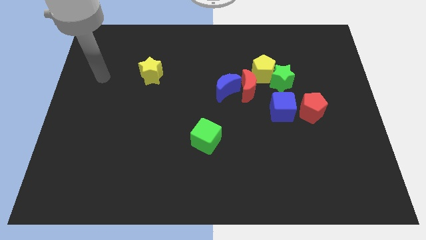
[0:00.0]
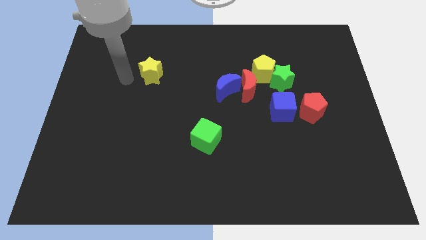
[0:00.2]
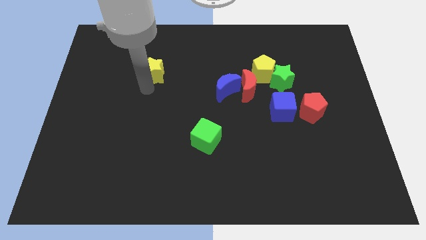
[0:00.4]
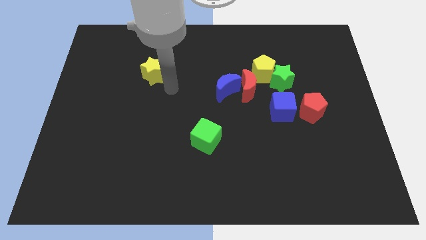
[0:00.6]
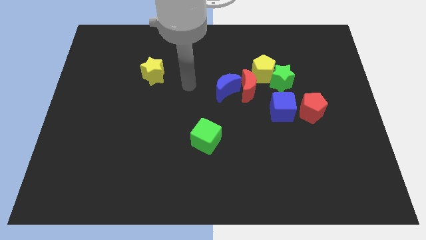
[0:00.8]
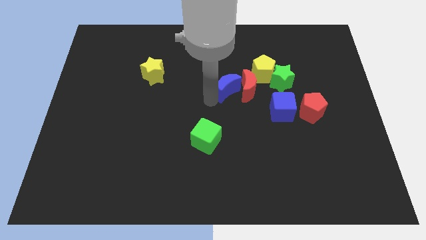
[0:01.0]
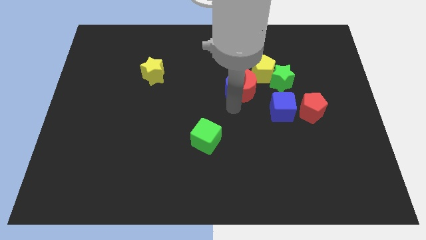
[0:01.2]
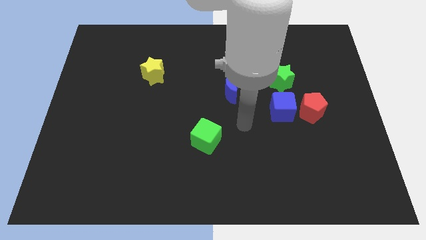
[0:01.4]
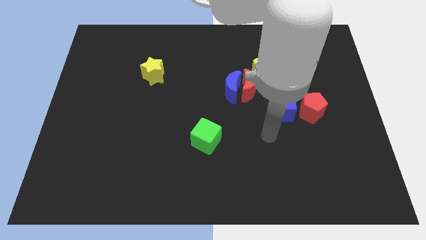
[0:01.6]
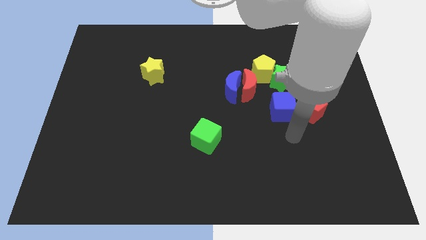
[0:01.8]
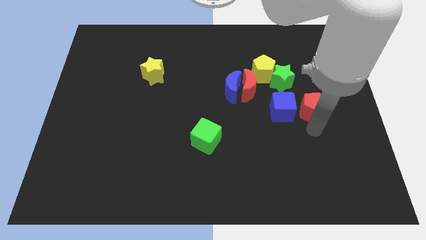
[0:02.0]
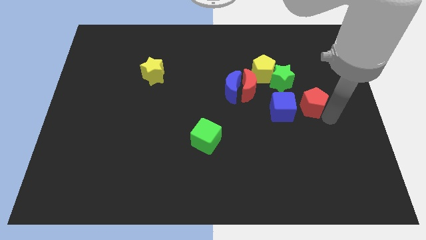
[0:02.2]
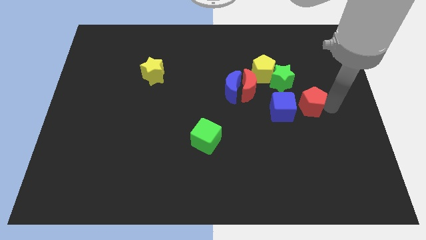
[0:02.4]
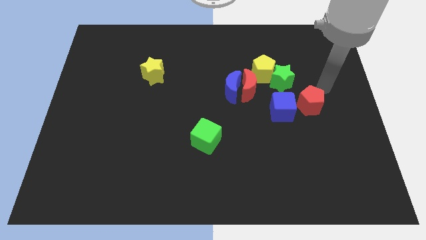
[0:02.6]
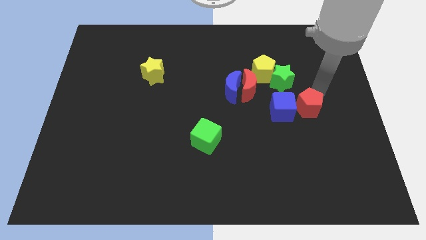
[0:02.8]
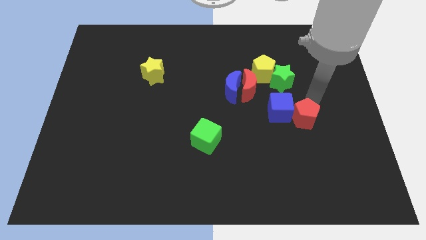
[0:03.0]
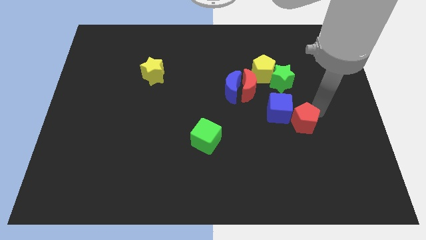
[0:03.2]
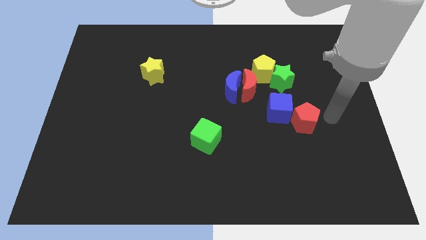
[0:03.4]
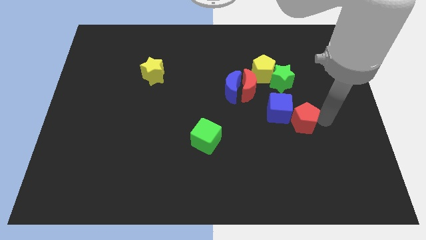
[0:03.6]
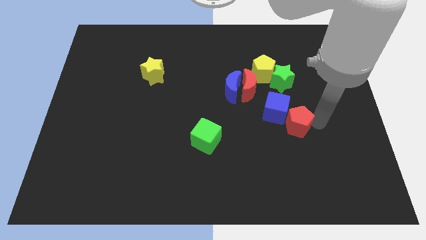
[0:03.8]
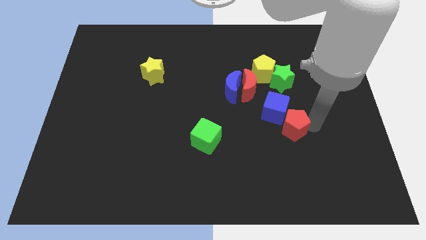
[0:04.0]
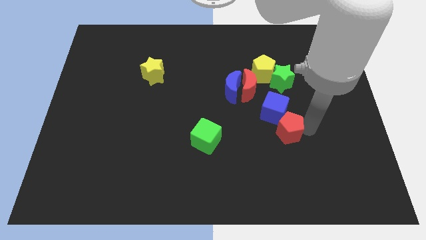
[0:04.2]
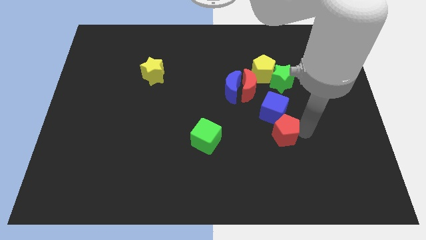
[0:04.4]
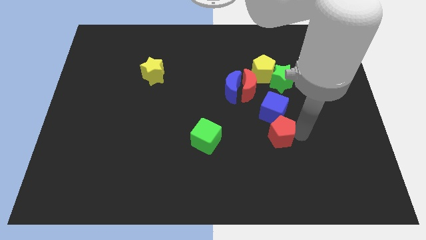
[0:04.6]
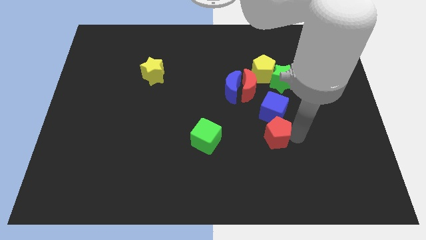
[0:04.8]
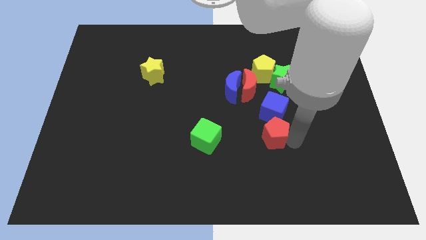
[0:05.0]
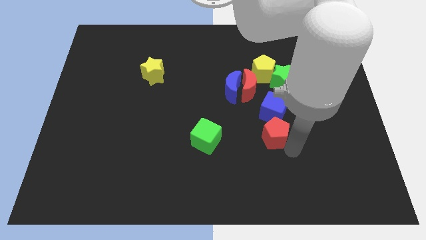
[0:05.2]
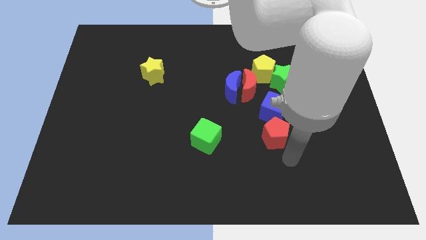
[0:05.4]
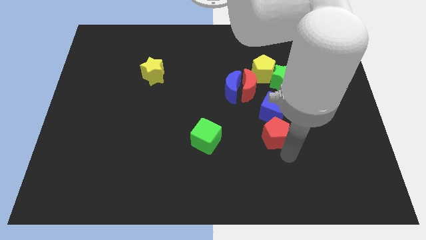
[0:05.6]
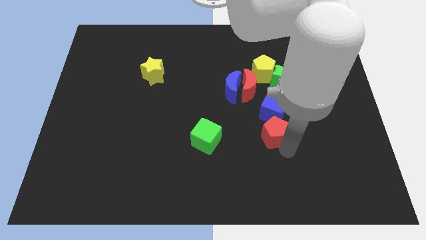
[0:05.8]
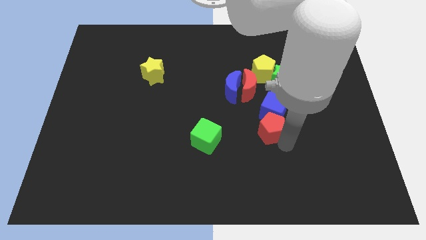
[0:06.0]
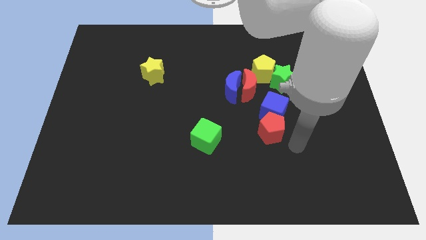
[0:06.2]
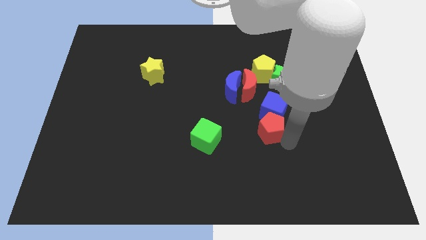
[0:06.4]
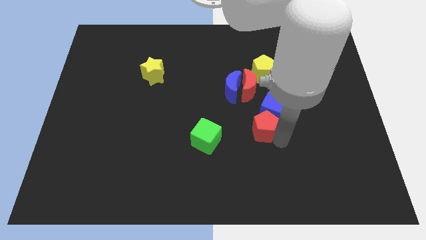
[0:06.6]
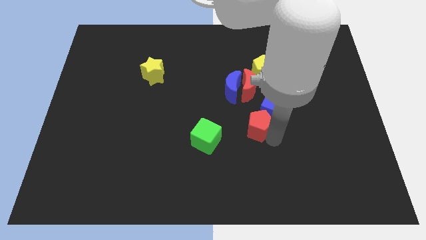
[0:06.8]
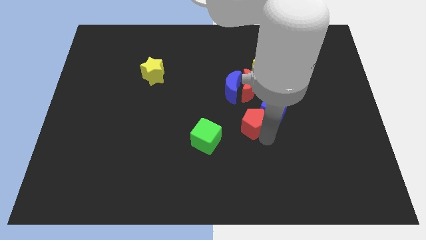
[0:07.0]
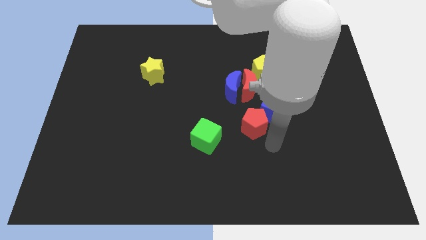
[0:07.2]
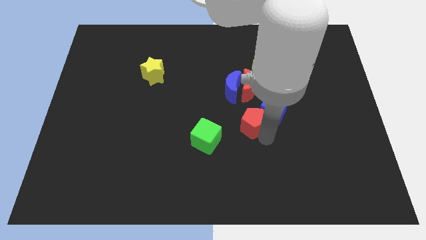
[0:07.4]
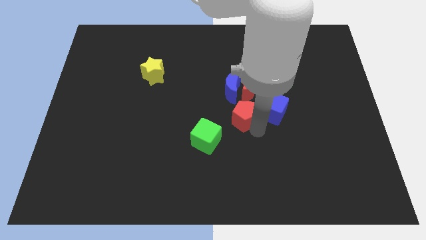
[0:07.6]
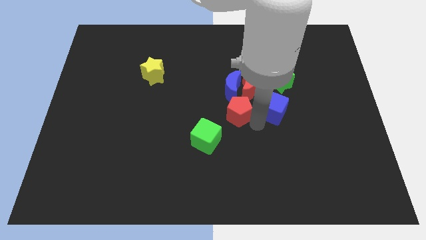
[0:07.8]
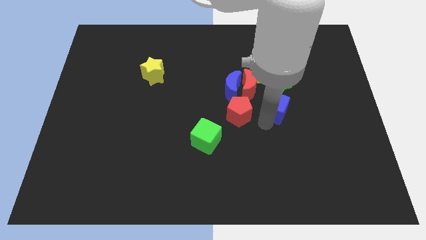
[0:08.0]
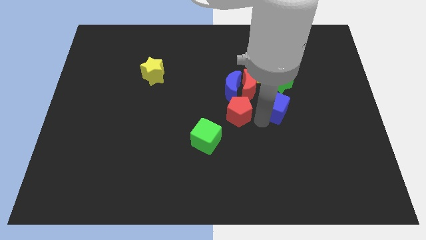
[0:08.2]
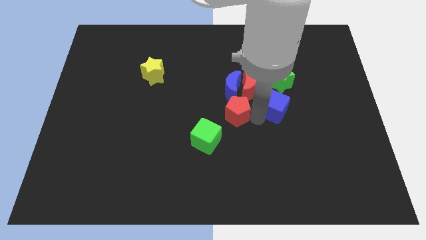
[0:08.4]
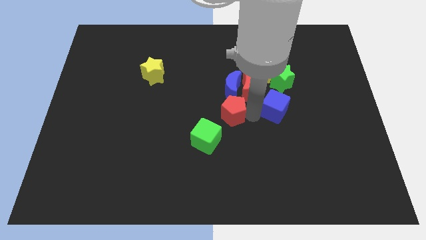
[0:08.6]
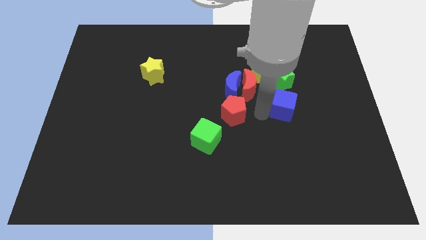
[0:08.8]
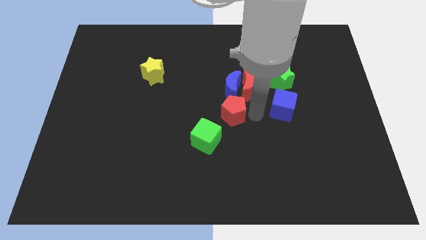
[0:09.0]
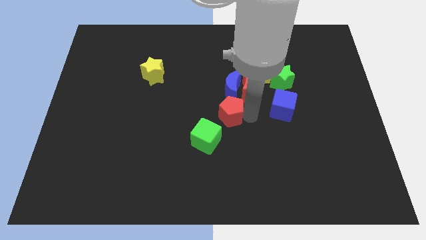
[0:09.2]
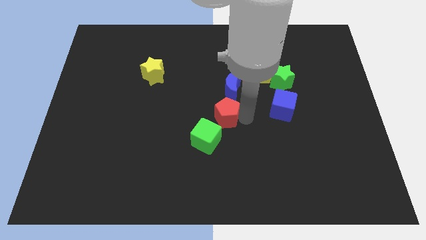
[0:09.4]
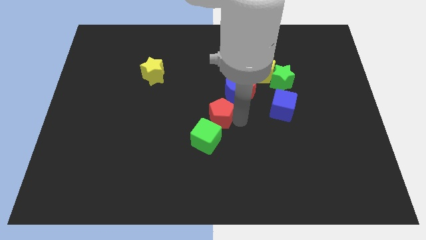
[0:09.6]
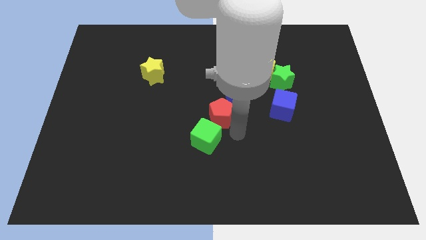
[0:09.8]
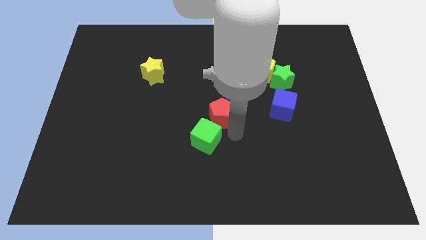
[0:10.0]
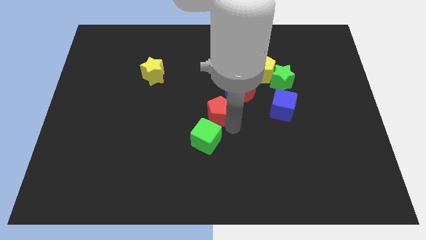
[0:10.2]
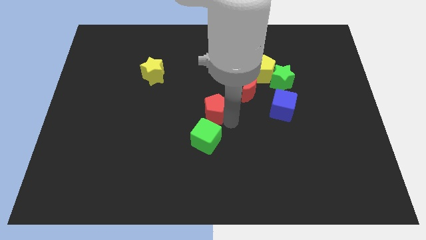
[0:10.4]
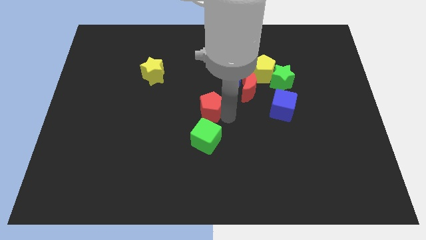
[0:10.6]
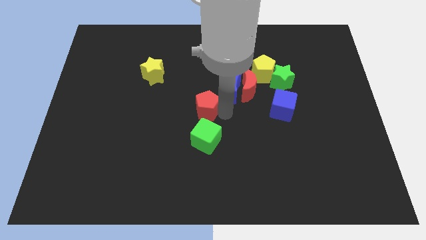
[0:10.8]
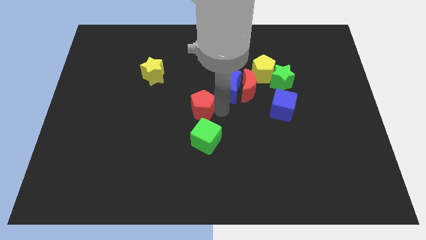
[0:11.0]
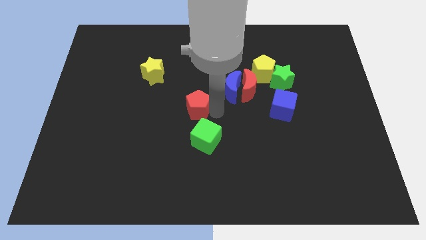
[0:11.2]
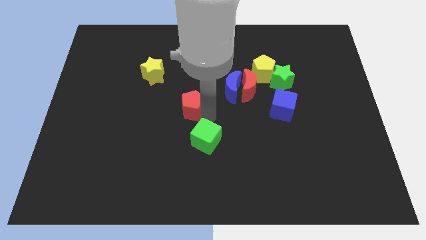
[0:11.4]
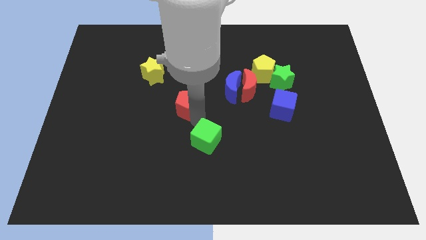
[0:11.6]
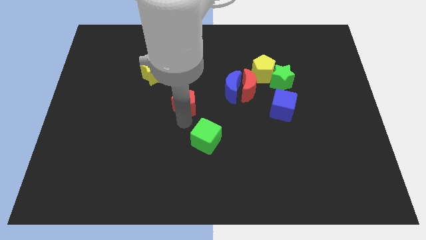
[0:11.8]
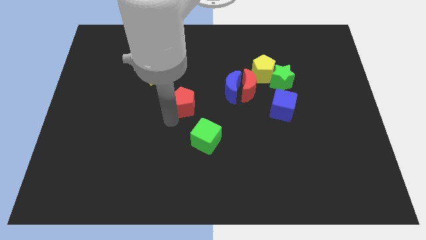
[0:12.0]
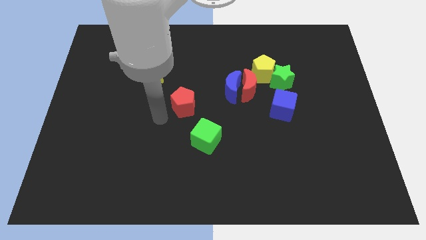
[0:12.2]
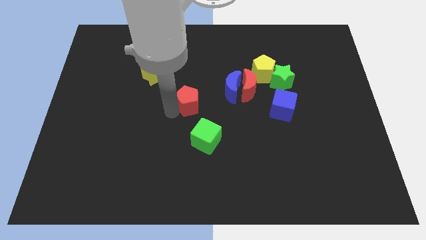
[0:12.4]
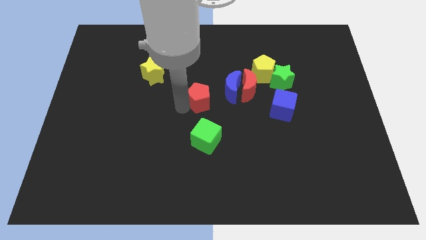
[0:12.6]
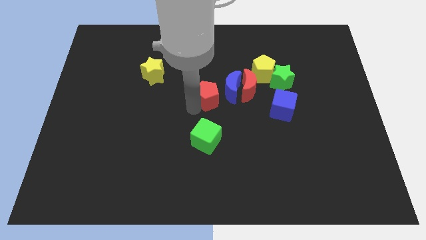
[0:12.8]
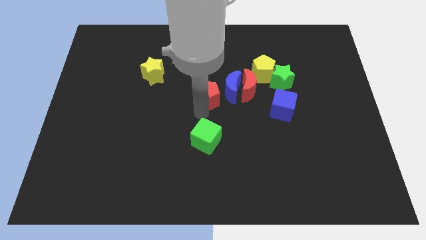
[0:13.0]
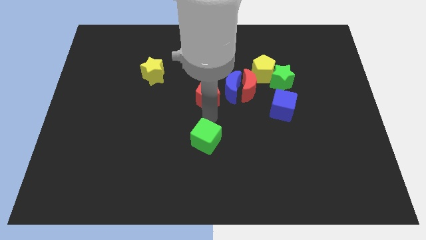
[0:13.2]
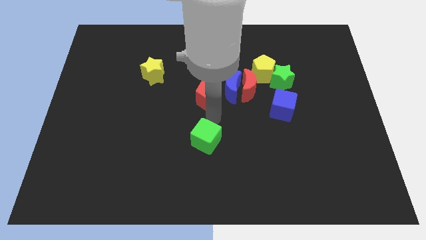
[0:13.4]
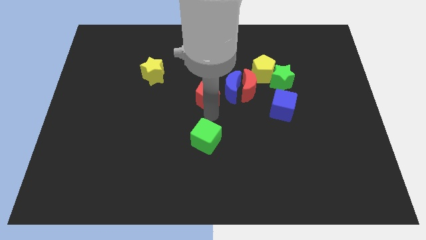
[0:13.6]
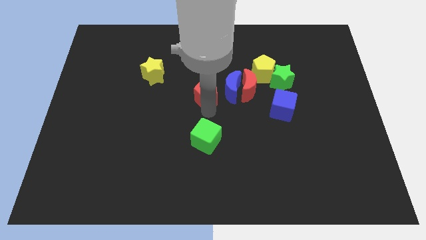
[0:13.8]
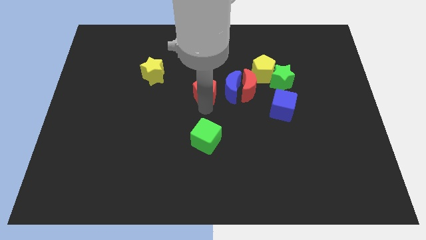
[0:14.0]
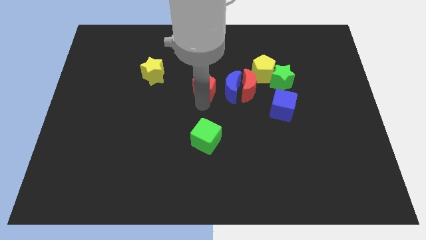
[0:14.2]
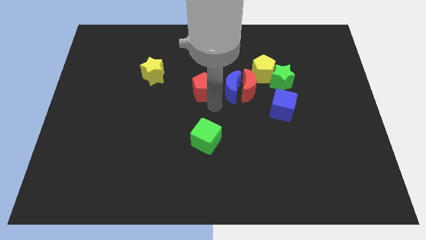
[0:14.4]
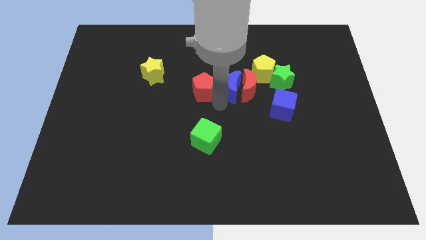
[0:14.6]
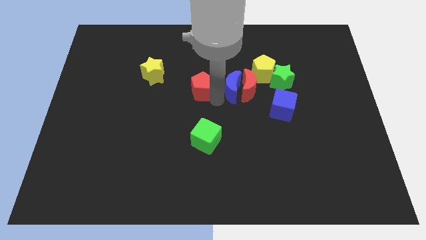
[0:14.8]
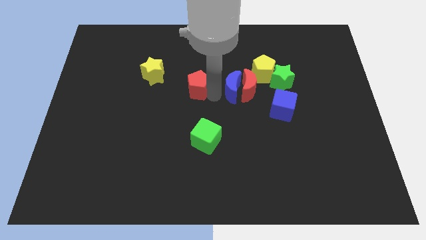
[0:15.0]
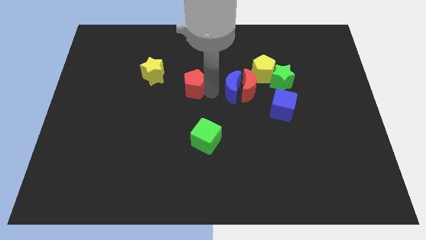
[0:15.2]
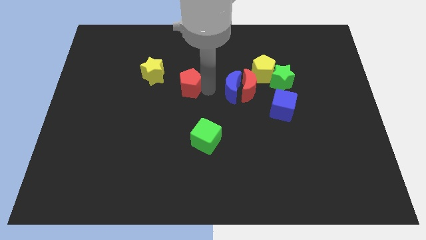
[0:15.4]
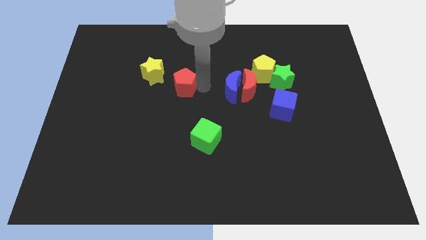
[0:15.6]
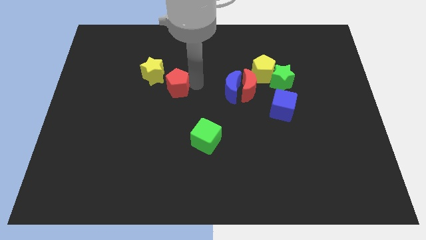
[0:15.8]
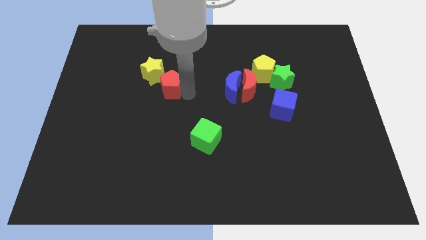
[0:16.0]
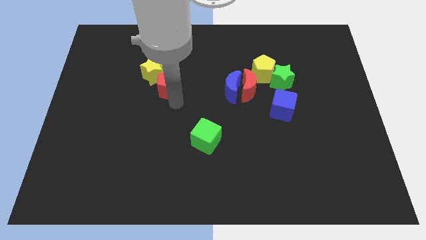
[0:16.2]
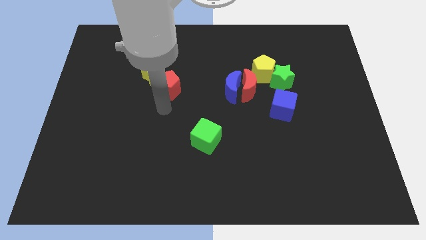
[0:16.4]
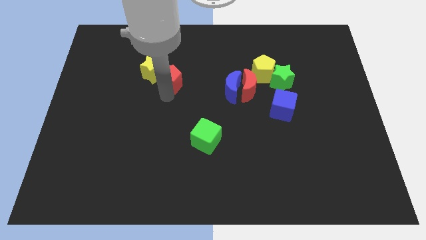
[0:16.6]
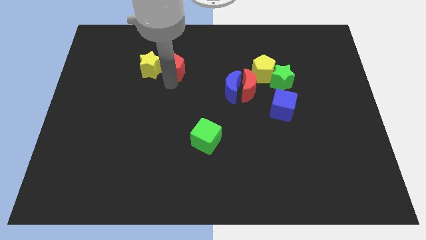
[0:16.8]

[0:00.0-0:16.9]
move the red pentagon diagonally up and to the right of the yellow star
